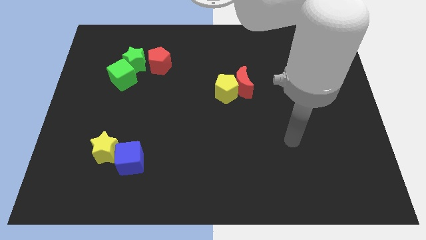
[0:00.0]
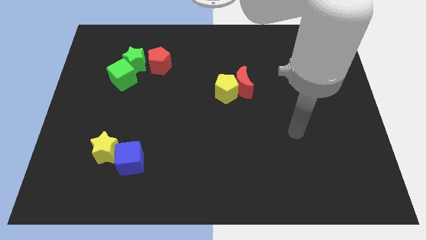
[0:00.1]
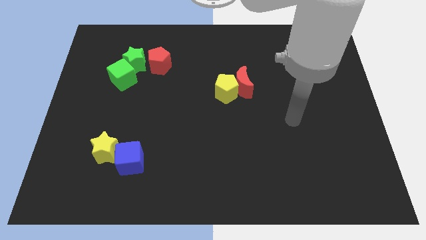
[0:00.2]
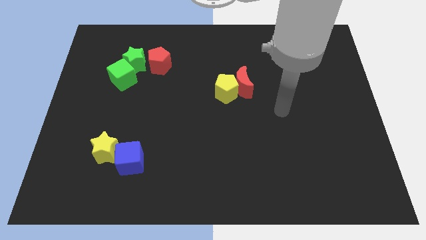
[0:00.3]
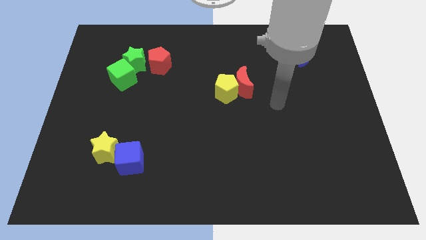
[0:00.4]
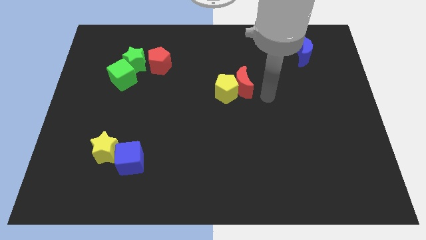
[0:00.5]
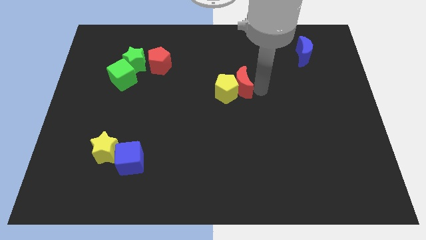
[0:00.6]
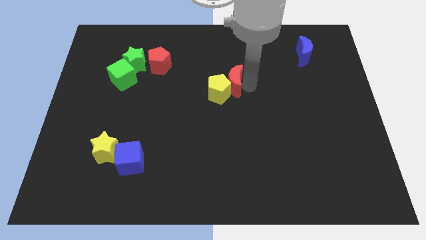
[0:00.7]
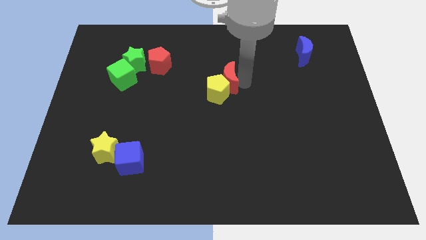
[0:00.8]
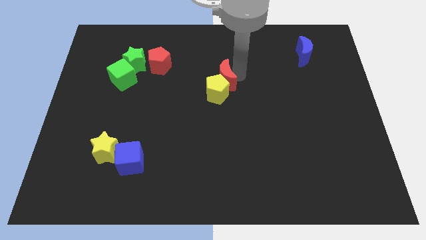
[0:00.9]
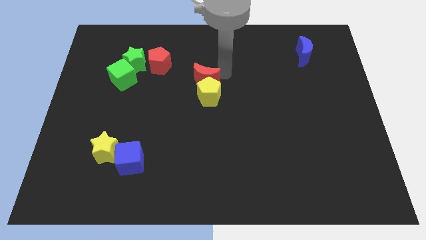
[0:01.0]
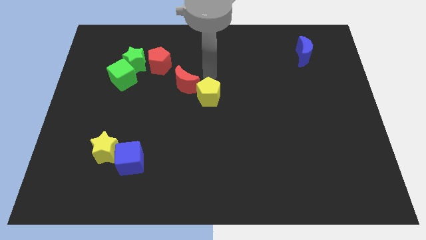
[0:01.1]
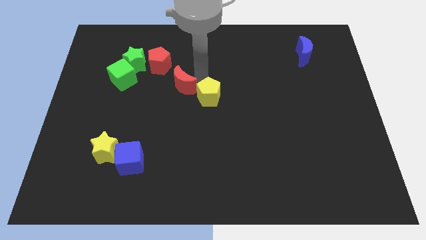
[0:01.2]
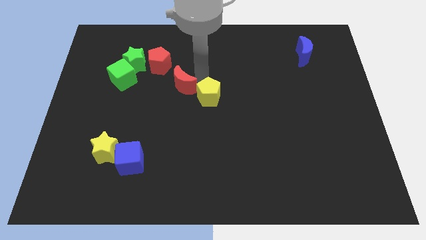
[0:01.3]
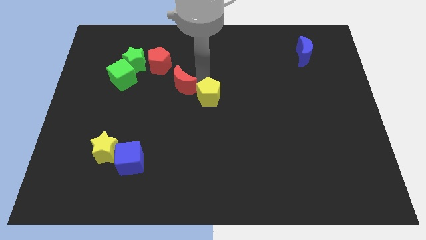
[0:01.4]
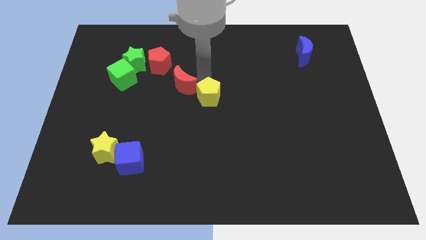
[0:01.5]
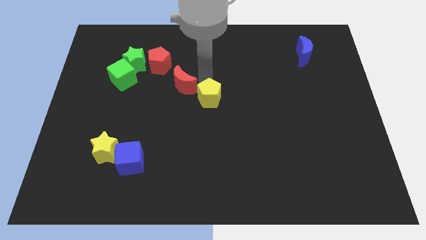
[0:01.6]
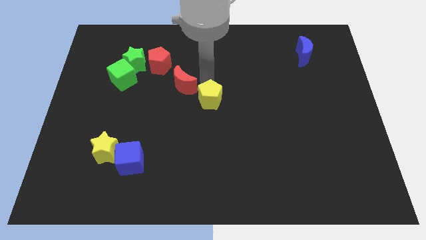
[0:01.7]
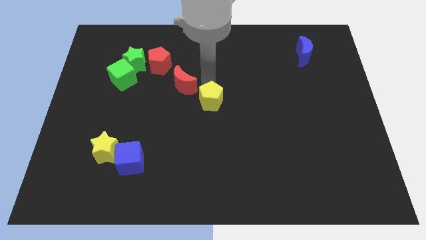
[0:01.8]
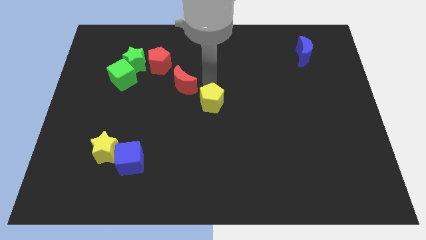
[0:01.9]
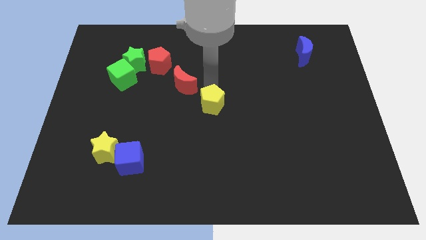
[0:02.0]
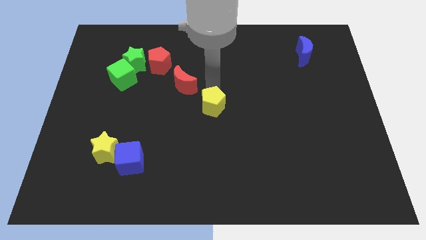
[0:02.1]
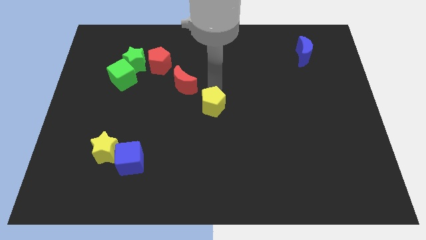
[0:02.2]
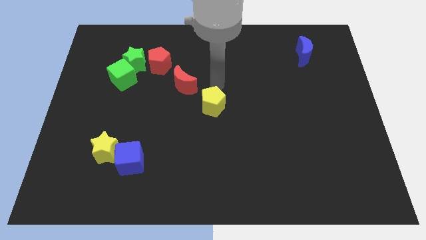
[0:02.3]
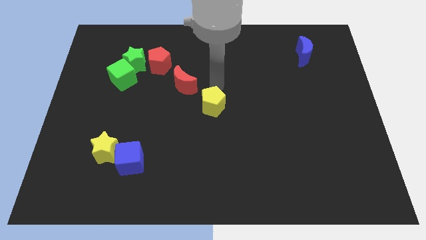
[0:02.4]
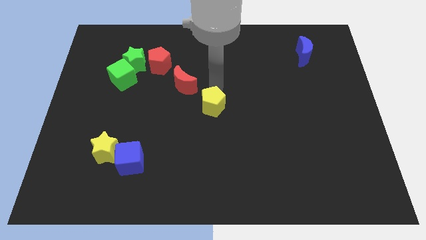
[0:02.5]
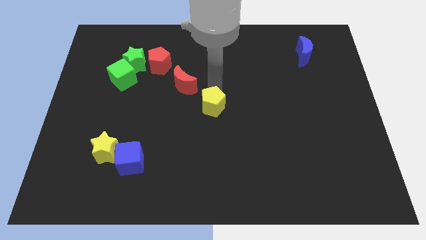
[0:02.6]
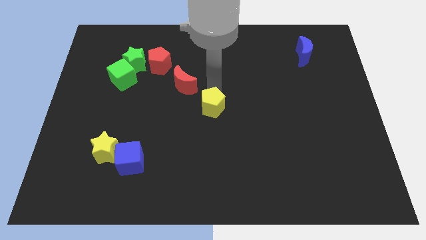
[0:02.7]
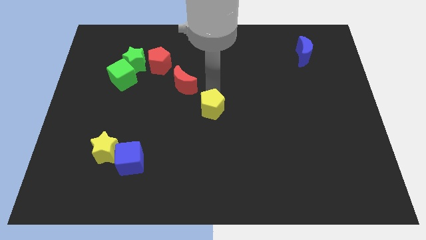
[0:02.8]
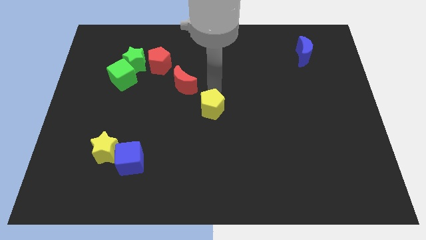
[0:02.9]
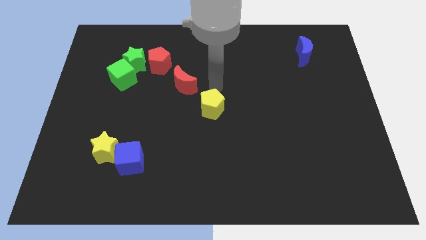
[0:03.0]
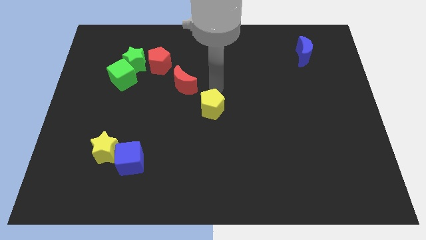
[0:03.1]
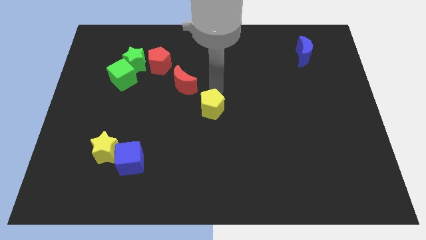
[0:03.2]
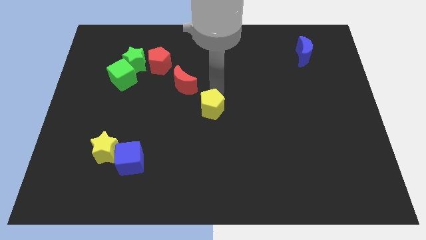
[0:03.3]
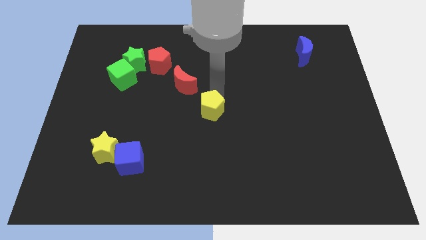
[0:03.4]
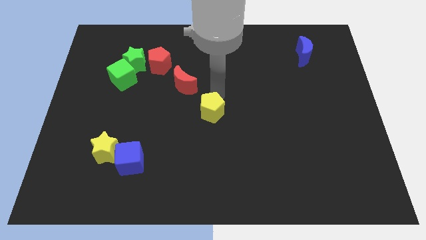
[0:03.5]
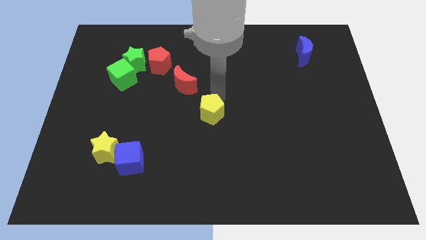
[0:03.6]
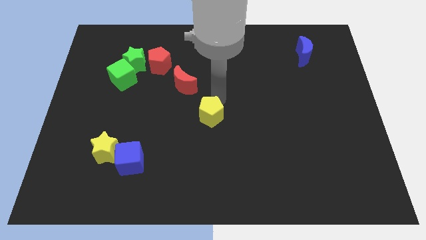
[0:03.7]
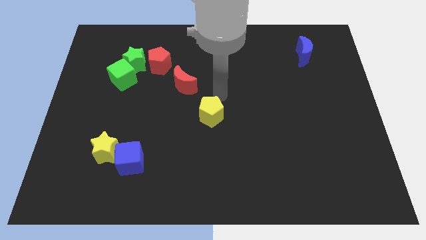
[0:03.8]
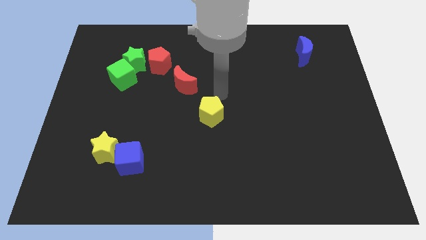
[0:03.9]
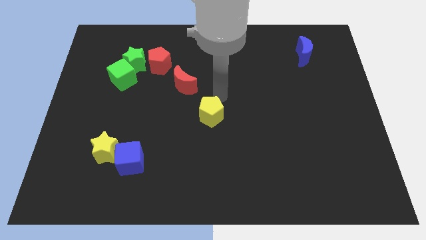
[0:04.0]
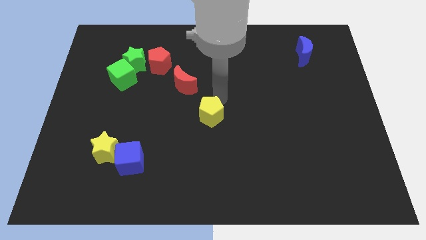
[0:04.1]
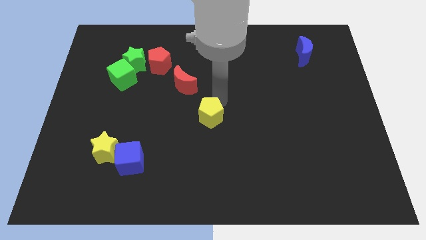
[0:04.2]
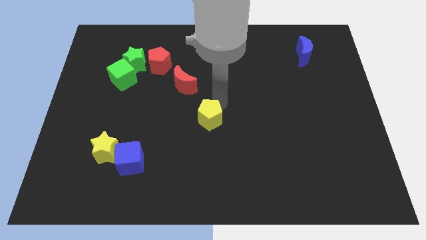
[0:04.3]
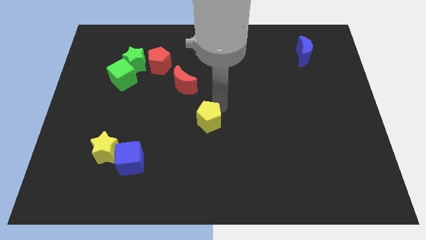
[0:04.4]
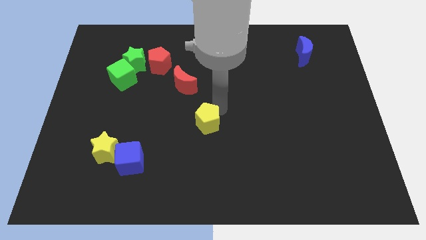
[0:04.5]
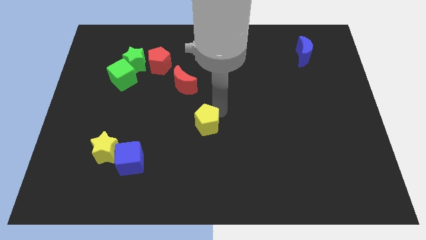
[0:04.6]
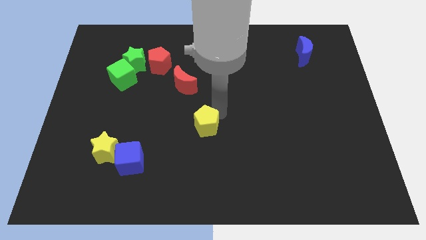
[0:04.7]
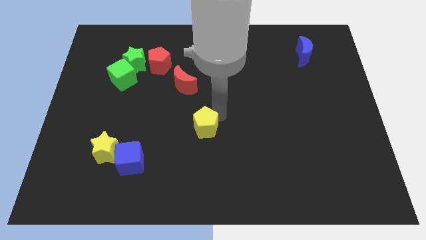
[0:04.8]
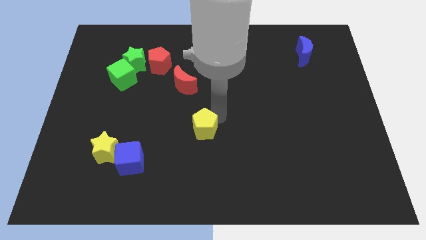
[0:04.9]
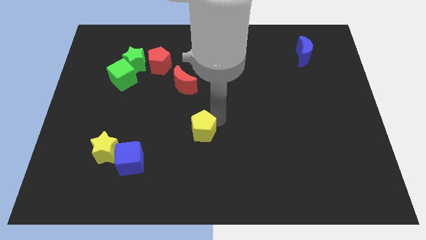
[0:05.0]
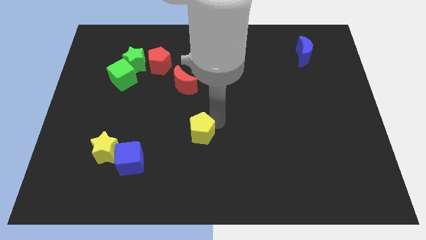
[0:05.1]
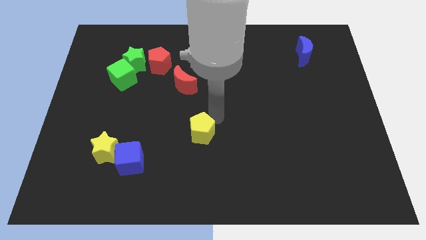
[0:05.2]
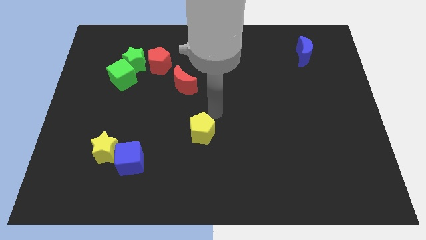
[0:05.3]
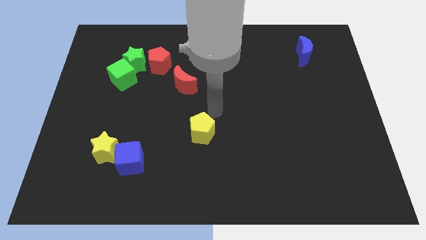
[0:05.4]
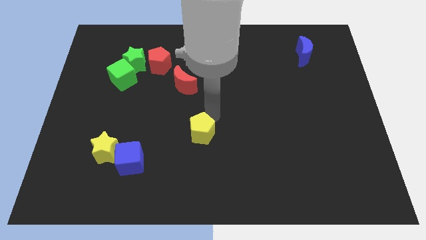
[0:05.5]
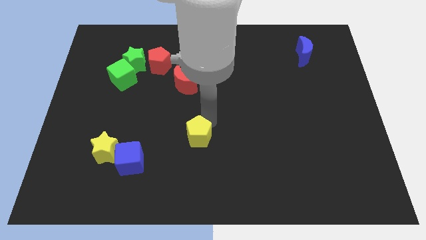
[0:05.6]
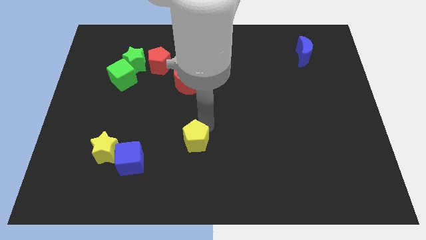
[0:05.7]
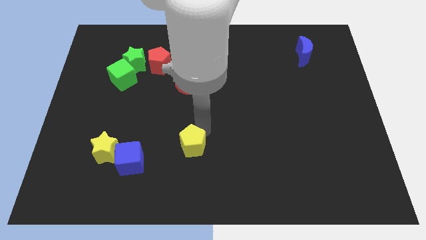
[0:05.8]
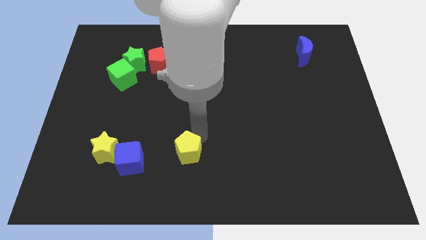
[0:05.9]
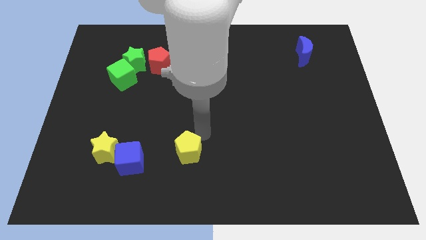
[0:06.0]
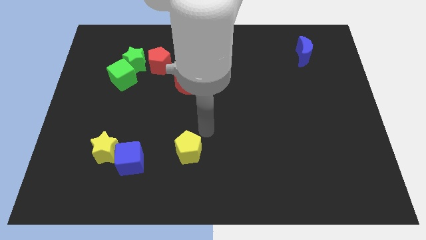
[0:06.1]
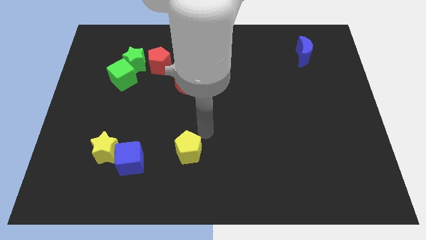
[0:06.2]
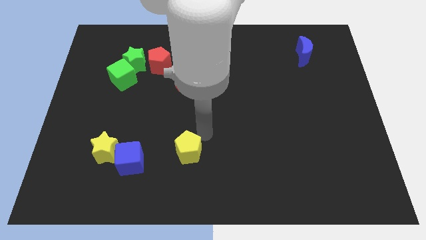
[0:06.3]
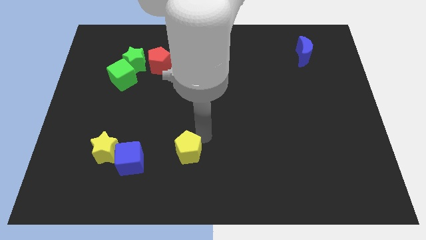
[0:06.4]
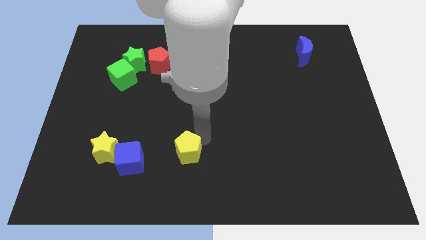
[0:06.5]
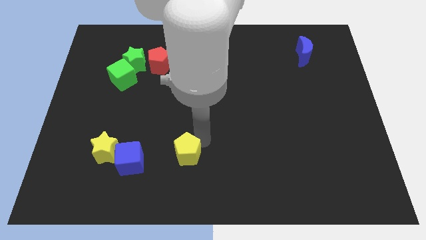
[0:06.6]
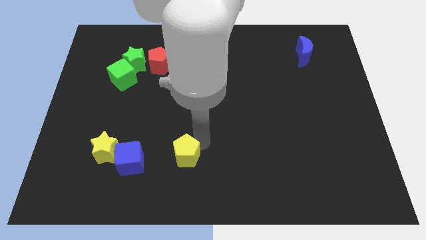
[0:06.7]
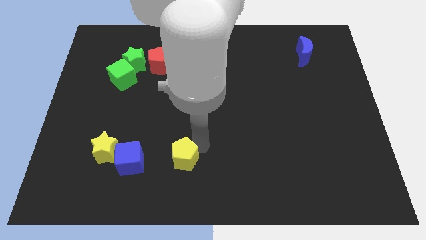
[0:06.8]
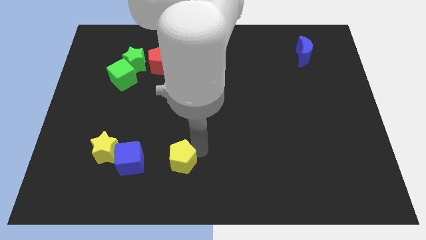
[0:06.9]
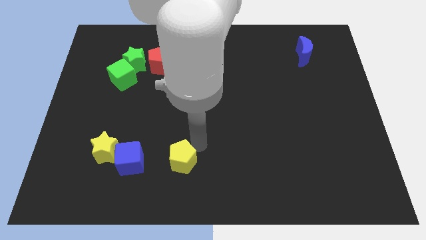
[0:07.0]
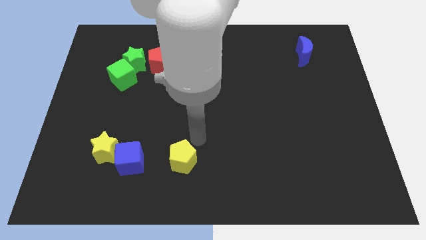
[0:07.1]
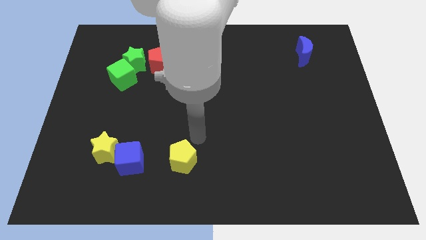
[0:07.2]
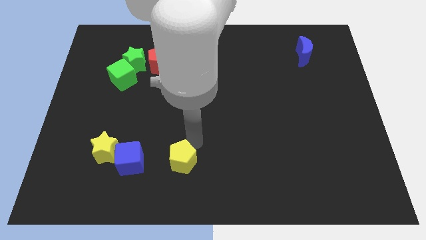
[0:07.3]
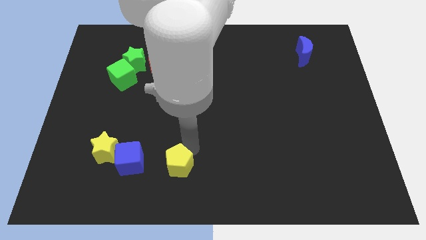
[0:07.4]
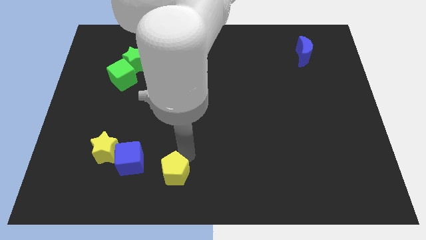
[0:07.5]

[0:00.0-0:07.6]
slide the yellow pentagon diagonally downwards and to the left

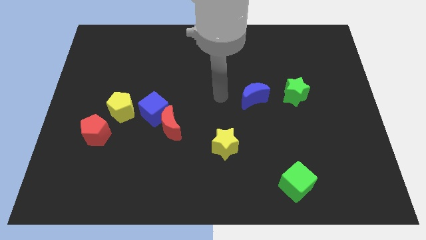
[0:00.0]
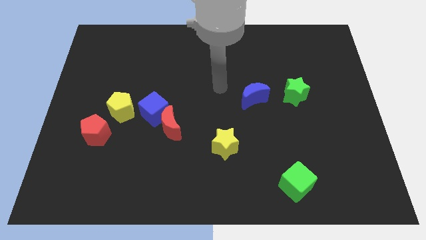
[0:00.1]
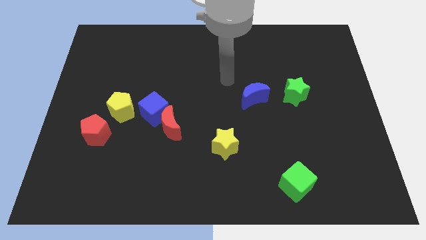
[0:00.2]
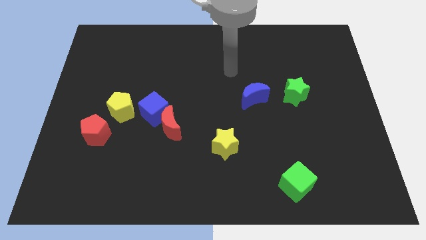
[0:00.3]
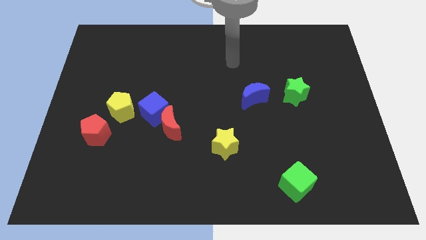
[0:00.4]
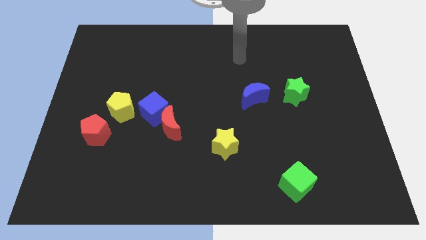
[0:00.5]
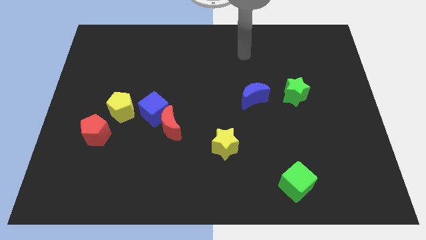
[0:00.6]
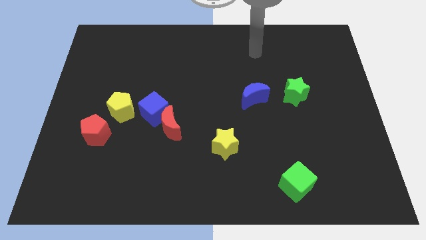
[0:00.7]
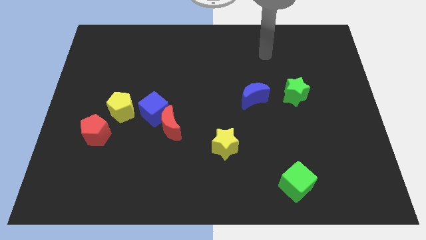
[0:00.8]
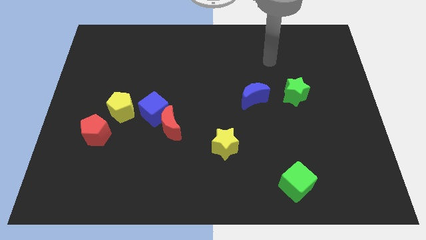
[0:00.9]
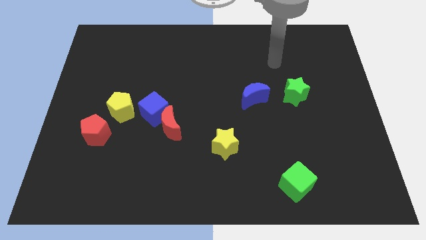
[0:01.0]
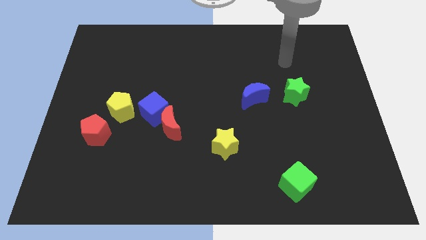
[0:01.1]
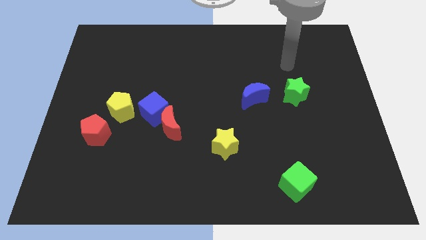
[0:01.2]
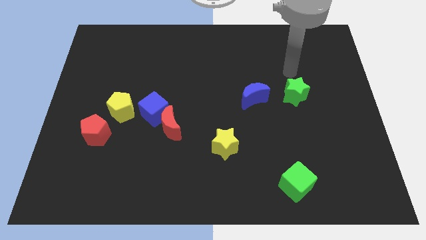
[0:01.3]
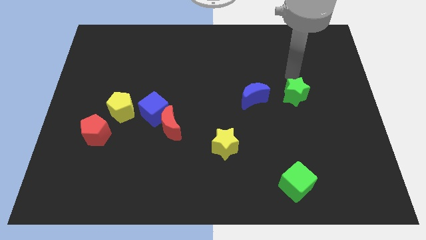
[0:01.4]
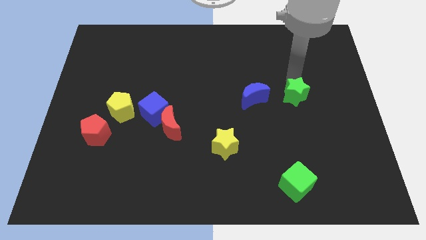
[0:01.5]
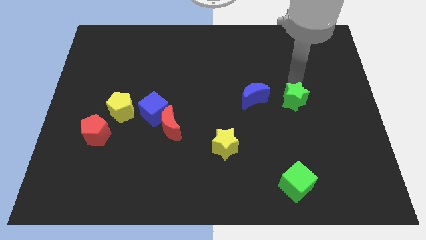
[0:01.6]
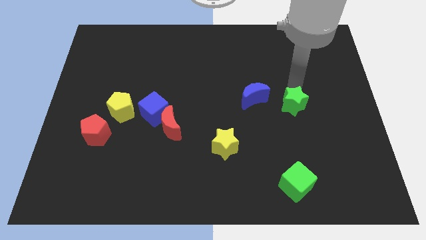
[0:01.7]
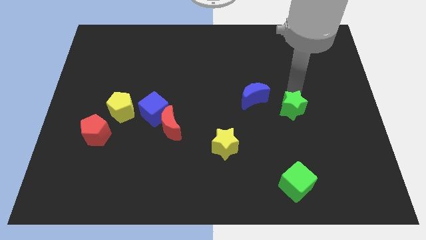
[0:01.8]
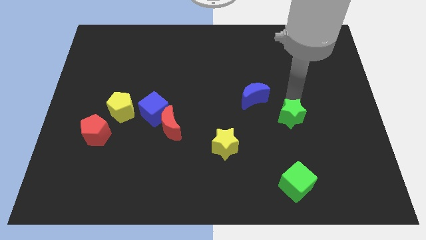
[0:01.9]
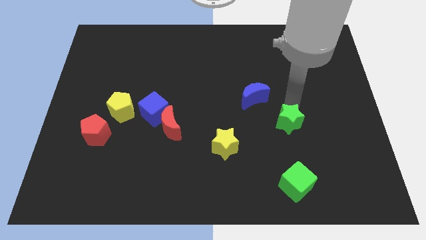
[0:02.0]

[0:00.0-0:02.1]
slide the green star down a bit
